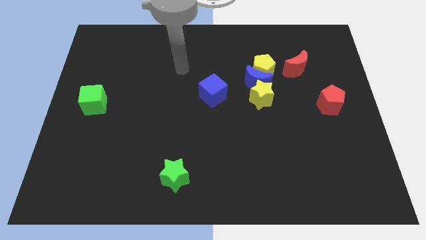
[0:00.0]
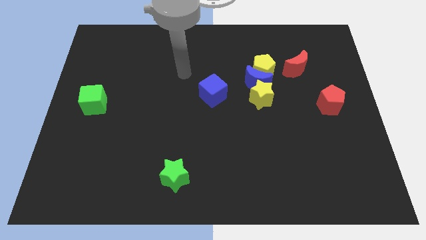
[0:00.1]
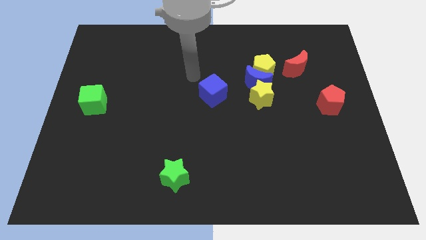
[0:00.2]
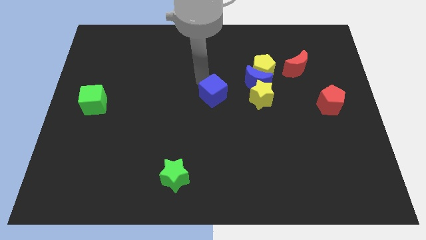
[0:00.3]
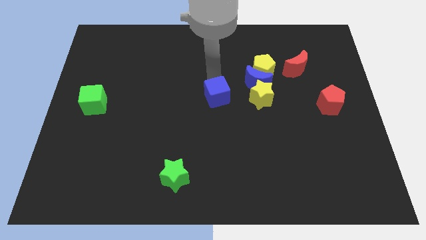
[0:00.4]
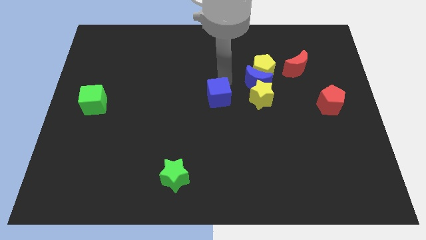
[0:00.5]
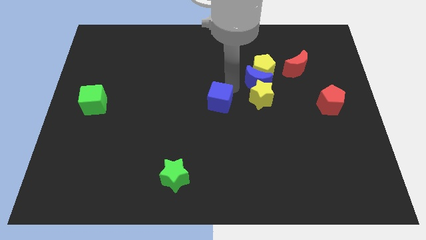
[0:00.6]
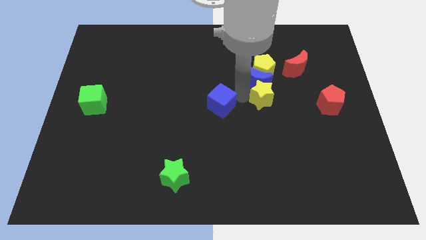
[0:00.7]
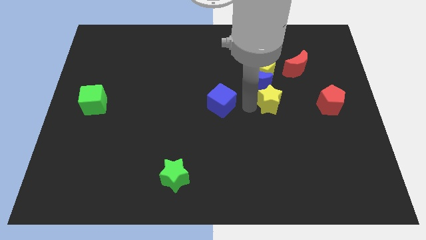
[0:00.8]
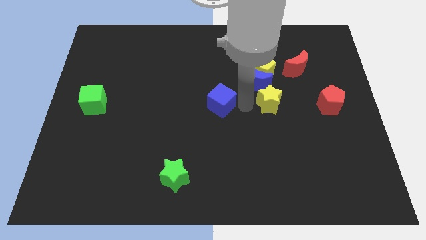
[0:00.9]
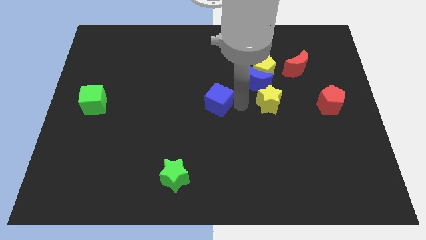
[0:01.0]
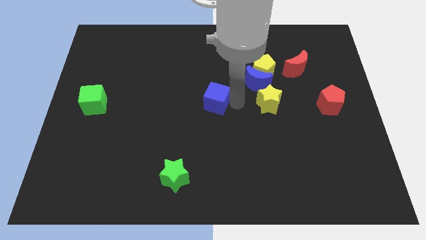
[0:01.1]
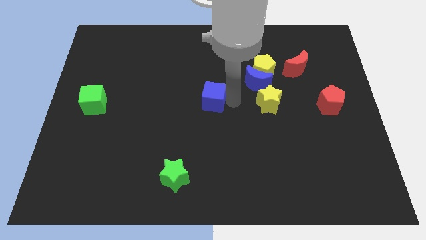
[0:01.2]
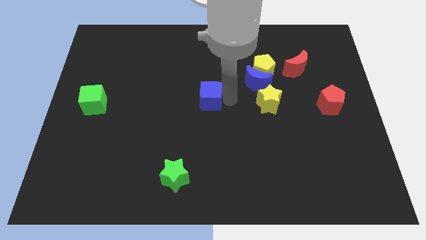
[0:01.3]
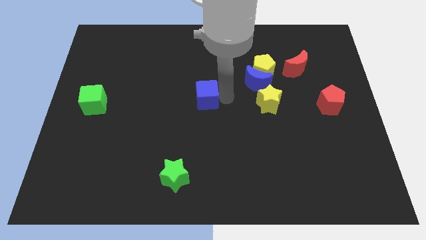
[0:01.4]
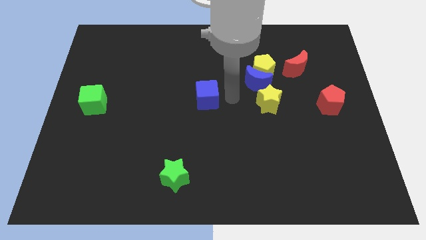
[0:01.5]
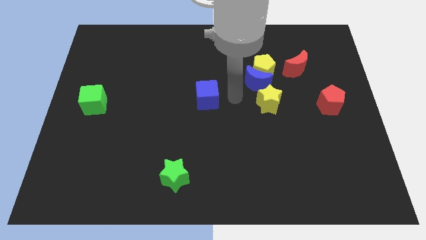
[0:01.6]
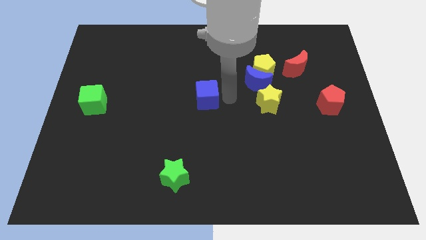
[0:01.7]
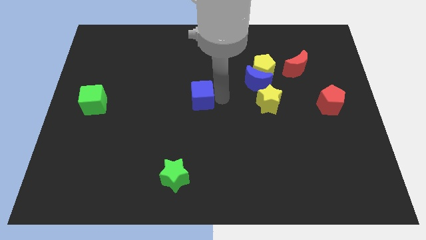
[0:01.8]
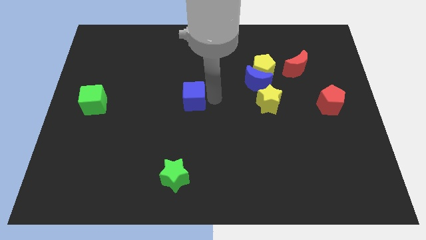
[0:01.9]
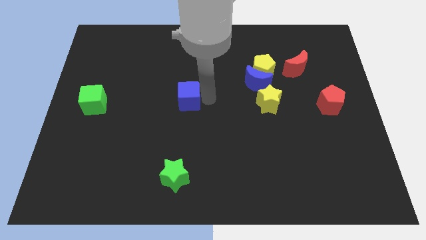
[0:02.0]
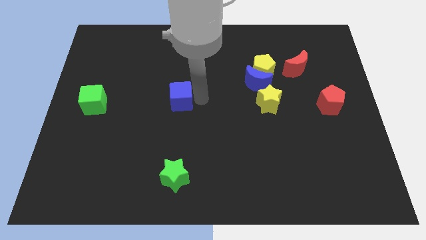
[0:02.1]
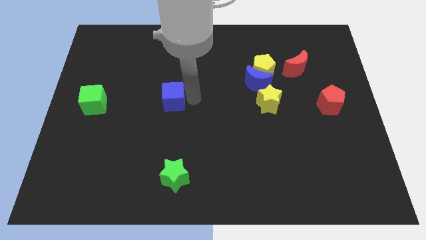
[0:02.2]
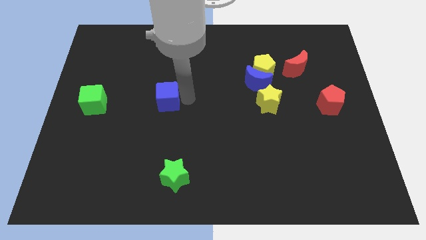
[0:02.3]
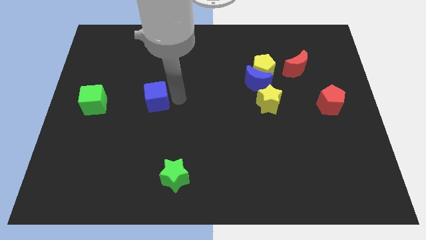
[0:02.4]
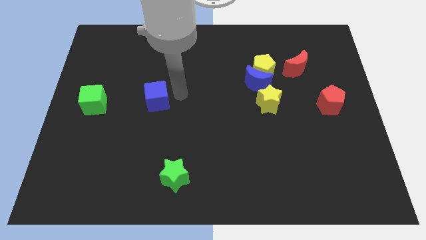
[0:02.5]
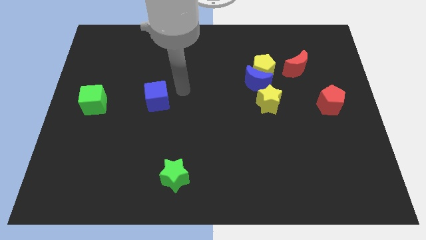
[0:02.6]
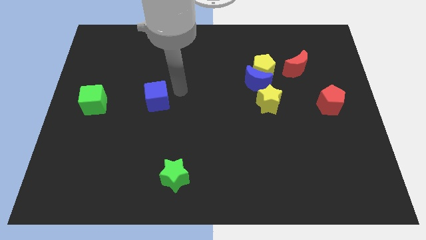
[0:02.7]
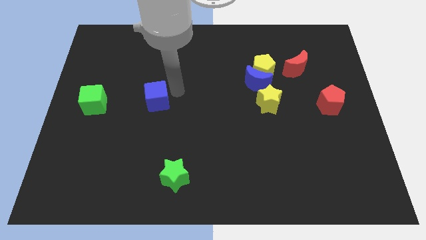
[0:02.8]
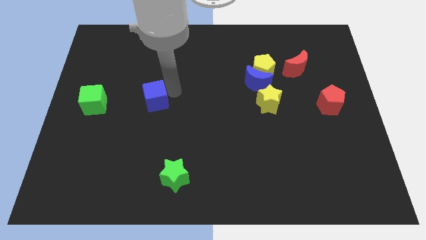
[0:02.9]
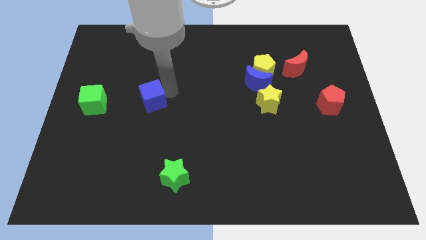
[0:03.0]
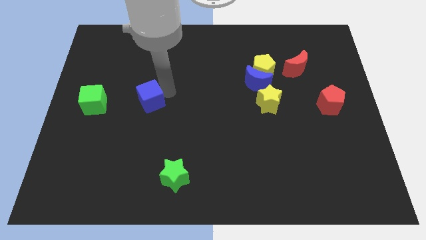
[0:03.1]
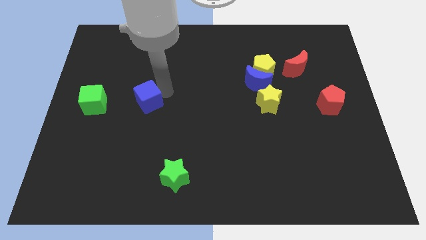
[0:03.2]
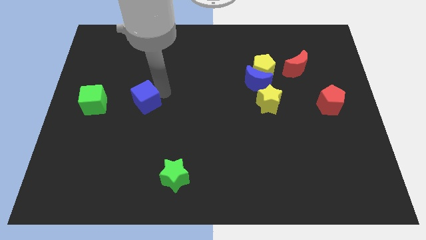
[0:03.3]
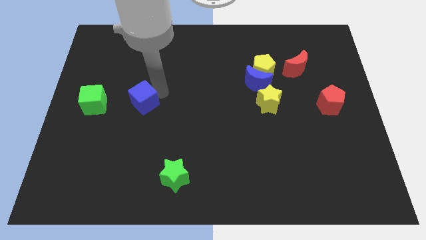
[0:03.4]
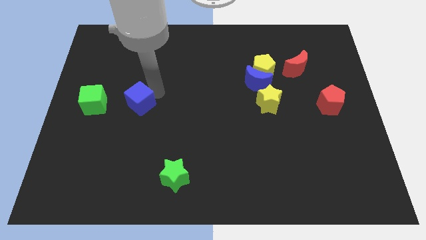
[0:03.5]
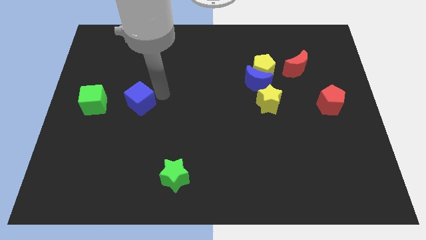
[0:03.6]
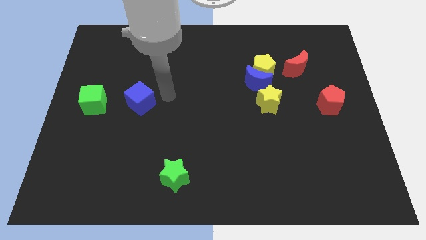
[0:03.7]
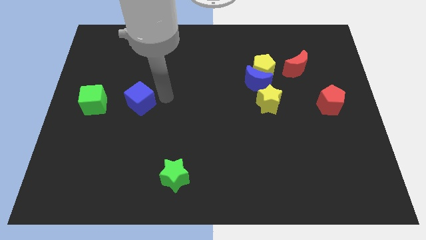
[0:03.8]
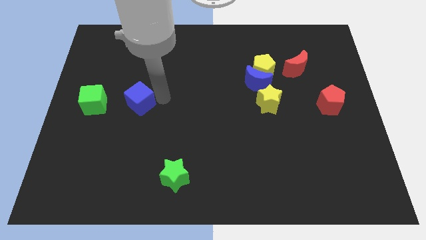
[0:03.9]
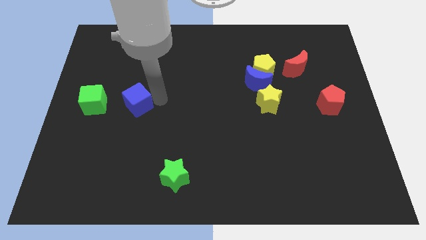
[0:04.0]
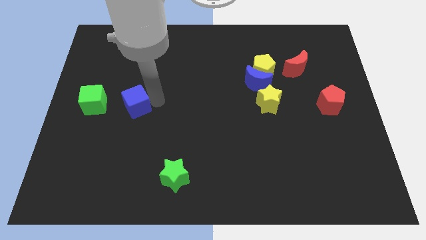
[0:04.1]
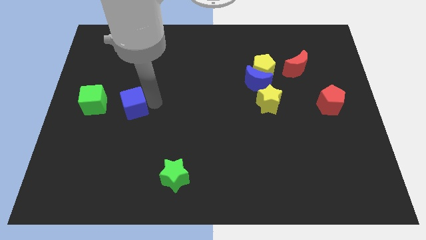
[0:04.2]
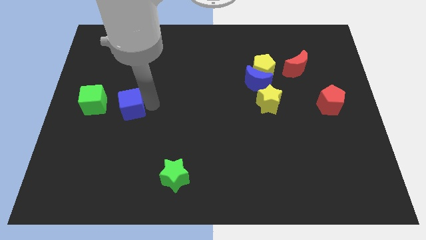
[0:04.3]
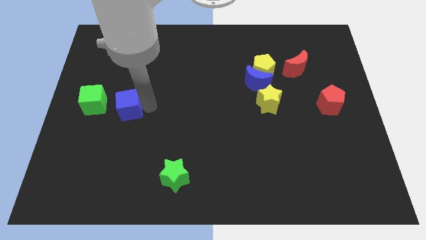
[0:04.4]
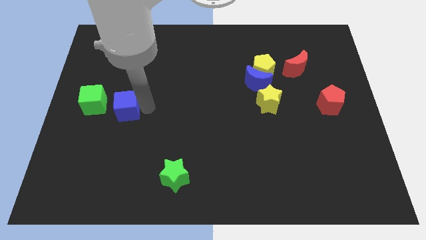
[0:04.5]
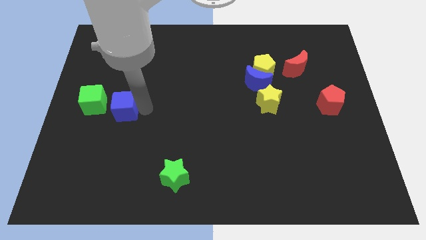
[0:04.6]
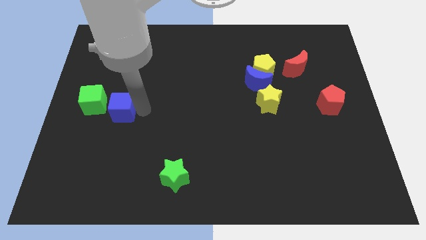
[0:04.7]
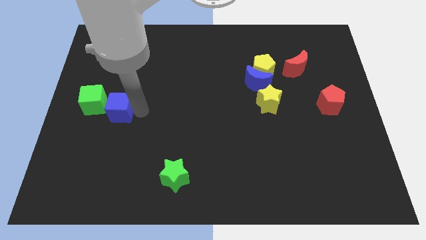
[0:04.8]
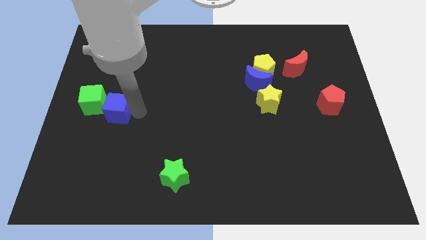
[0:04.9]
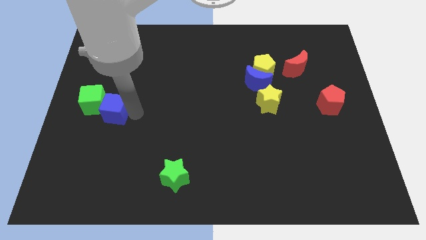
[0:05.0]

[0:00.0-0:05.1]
put the blue cube to the green cube

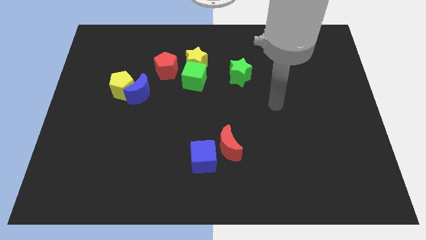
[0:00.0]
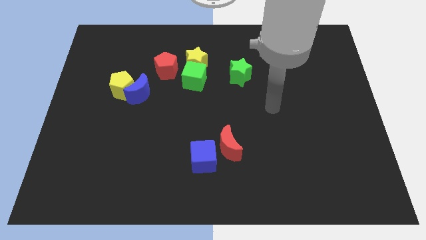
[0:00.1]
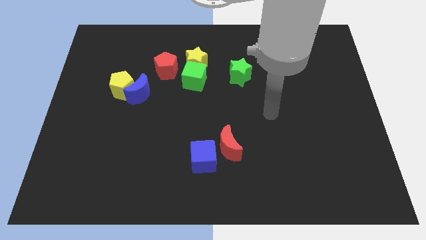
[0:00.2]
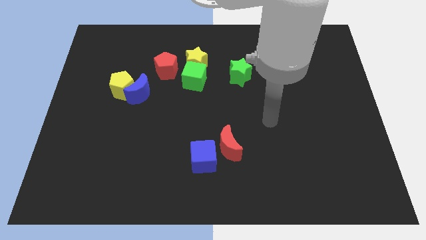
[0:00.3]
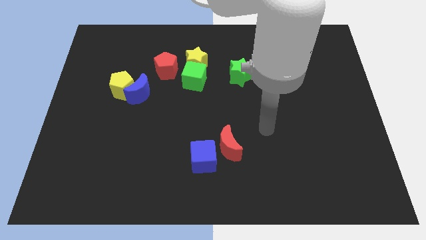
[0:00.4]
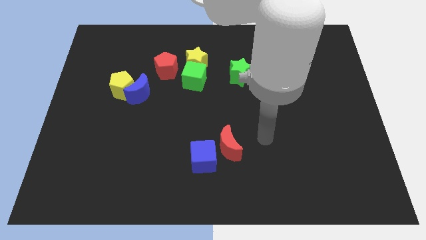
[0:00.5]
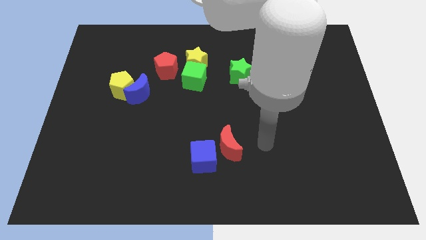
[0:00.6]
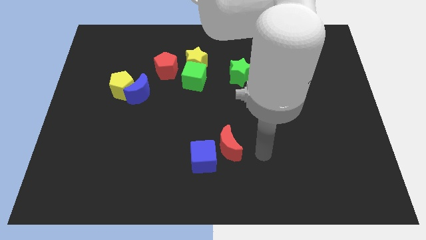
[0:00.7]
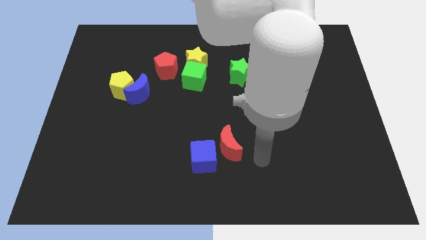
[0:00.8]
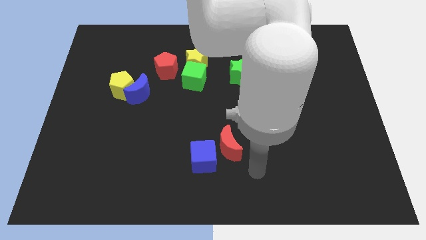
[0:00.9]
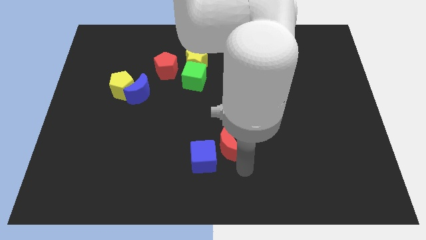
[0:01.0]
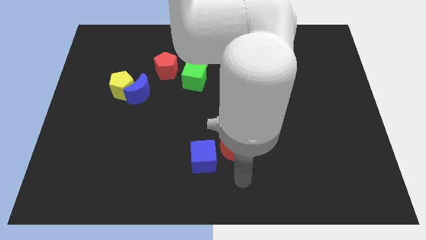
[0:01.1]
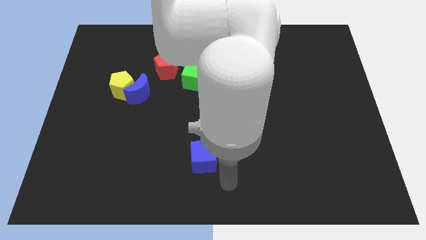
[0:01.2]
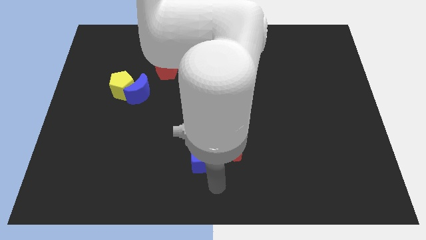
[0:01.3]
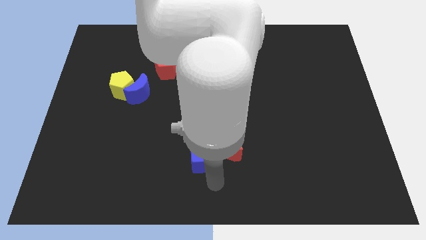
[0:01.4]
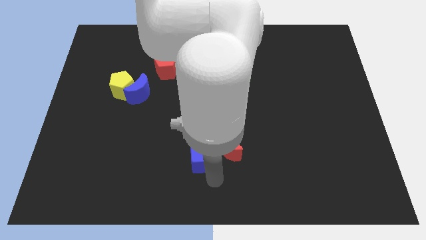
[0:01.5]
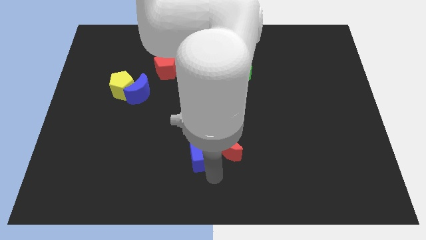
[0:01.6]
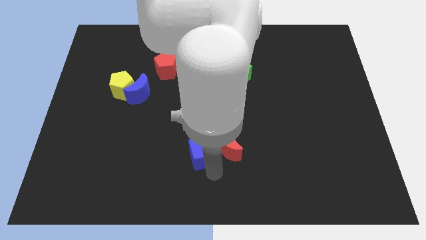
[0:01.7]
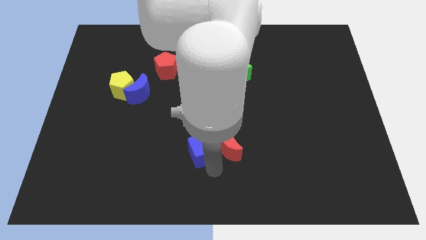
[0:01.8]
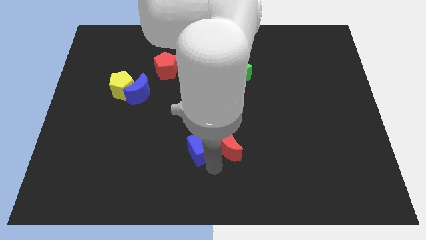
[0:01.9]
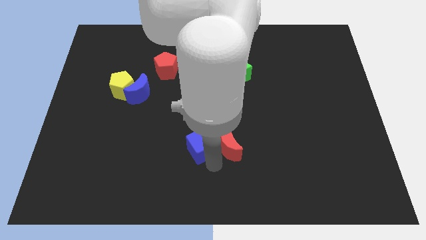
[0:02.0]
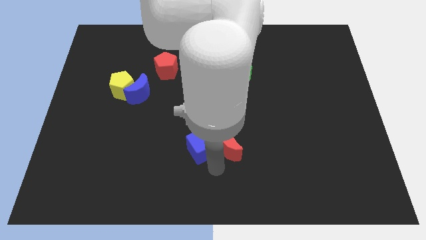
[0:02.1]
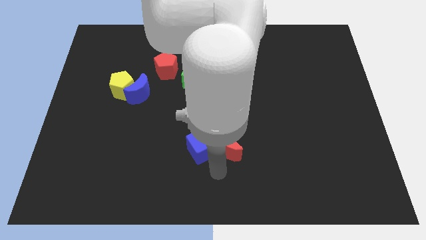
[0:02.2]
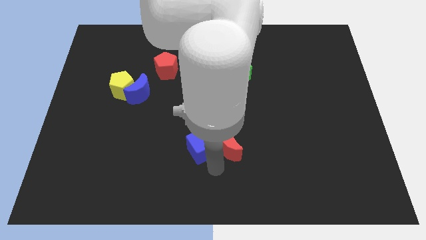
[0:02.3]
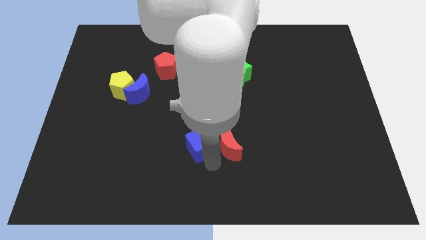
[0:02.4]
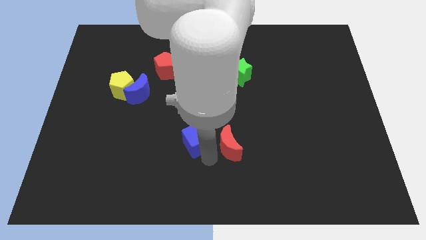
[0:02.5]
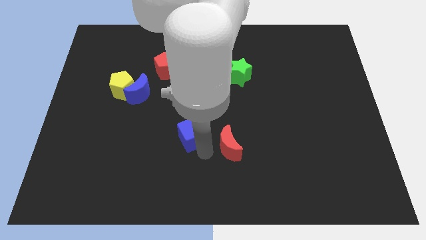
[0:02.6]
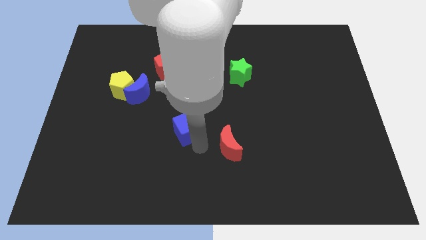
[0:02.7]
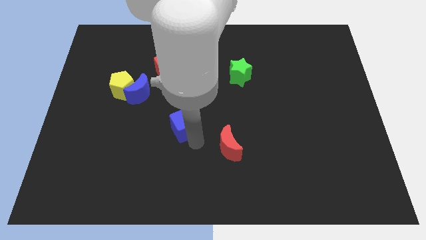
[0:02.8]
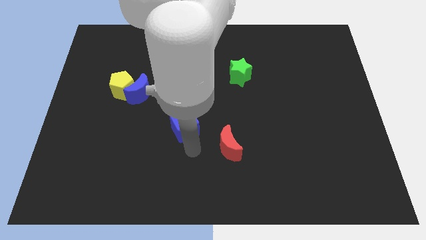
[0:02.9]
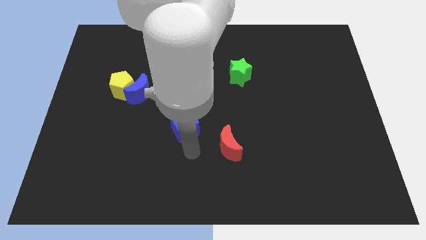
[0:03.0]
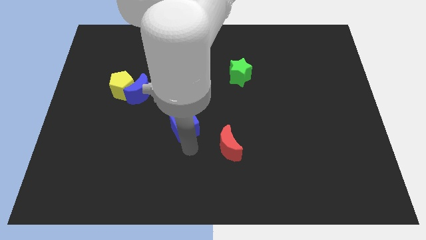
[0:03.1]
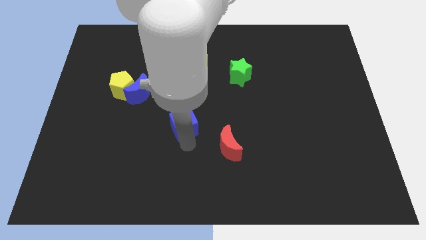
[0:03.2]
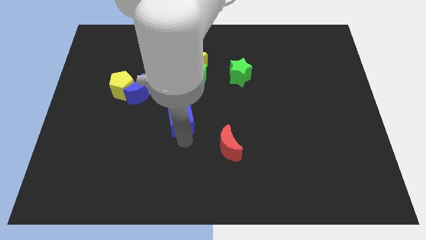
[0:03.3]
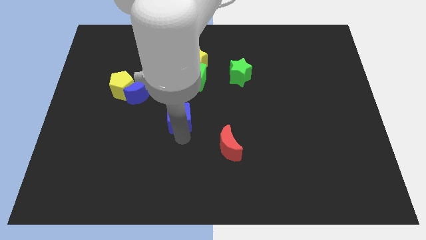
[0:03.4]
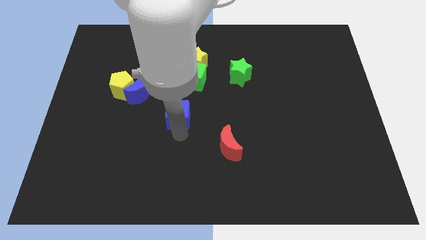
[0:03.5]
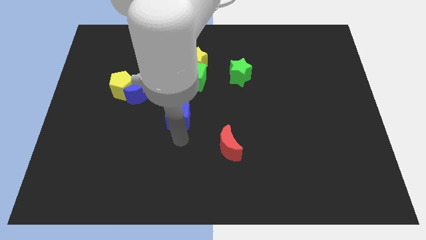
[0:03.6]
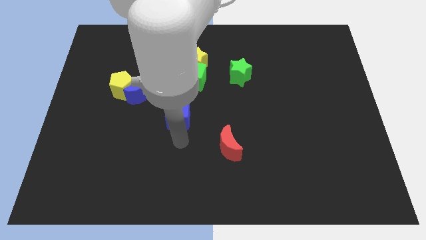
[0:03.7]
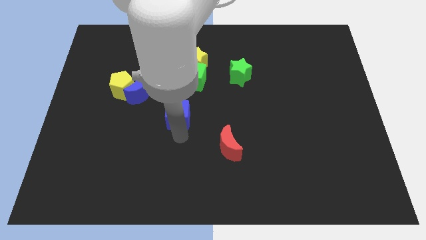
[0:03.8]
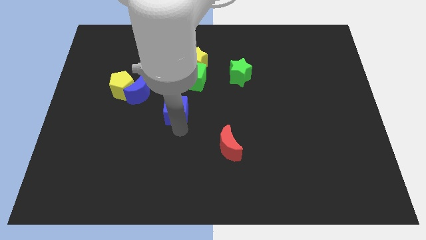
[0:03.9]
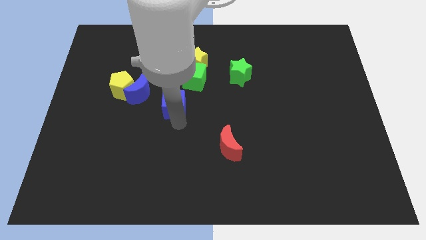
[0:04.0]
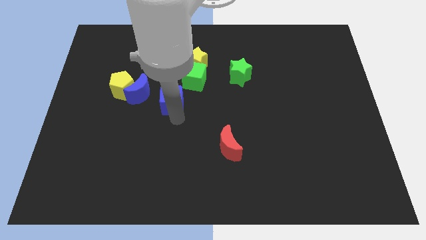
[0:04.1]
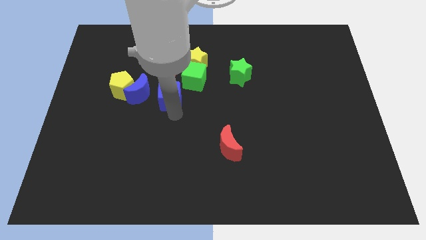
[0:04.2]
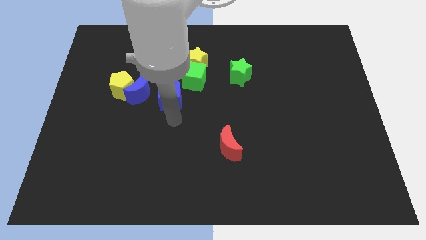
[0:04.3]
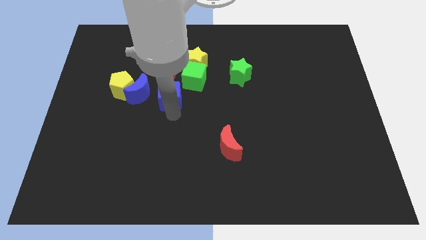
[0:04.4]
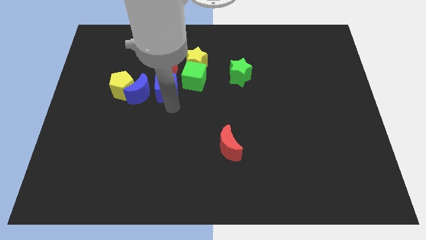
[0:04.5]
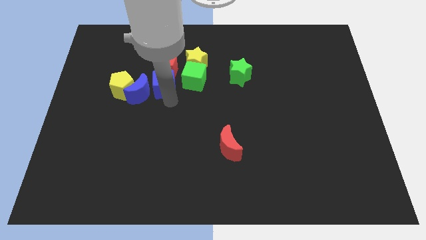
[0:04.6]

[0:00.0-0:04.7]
slide the blue cube towards the red pentagon
